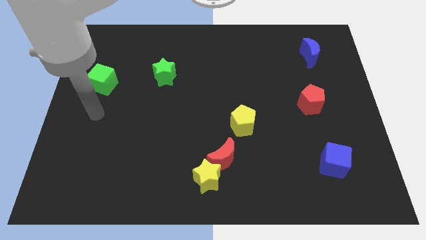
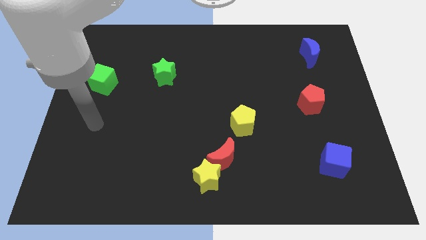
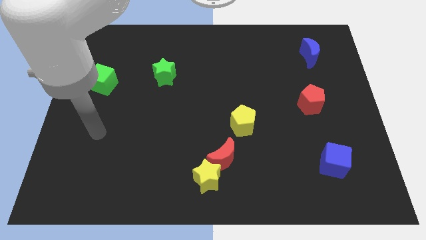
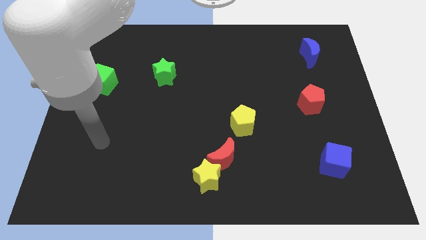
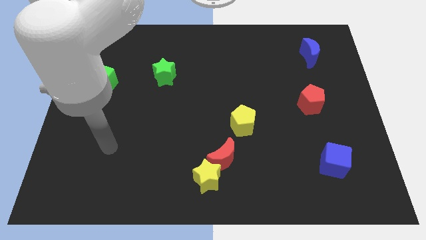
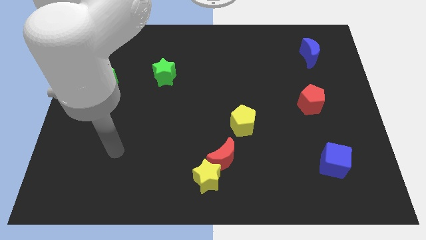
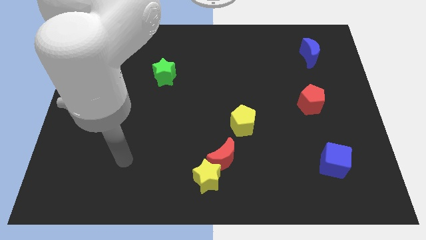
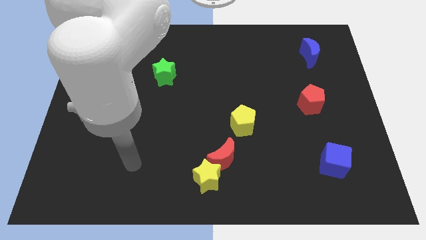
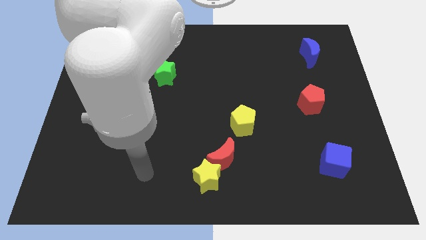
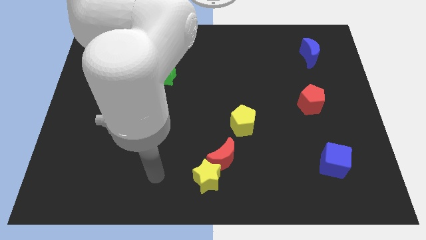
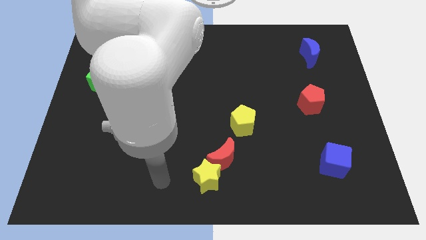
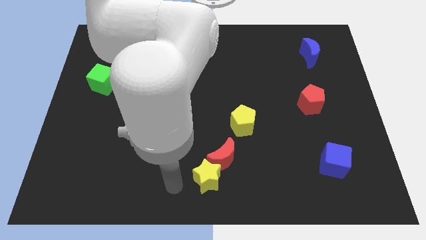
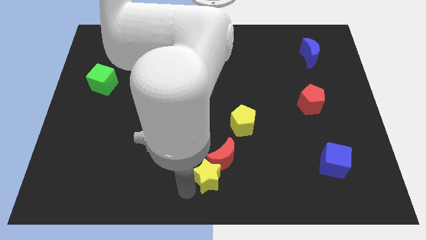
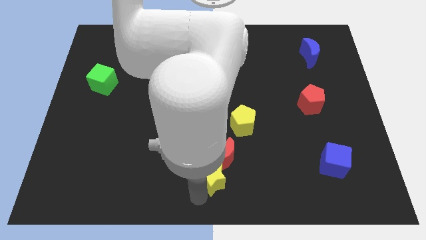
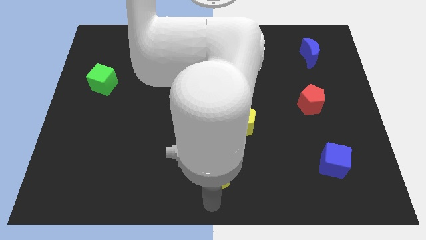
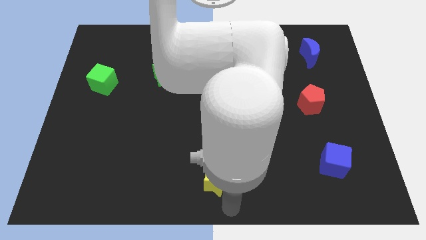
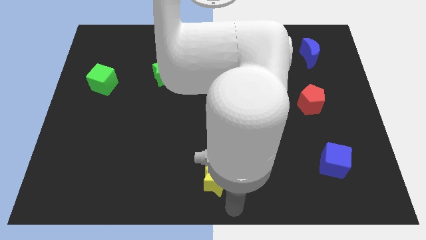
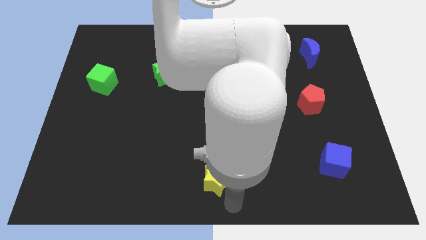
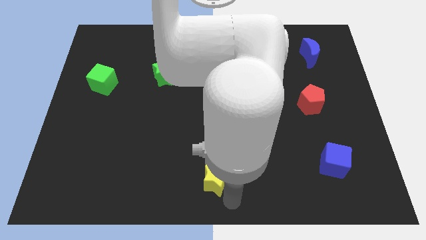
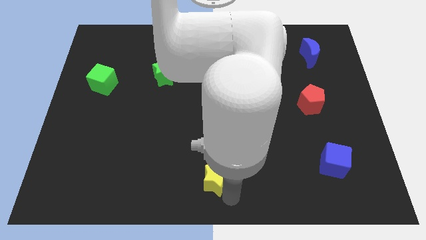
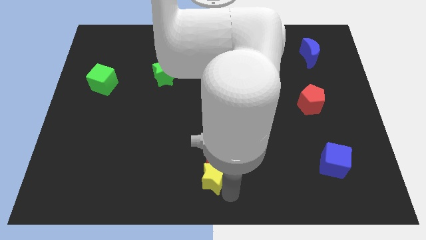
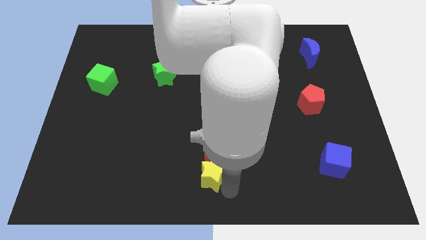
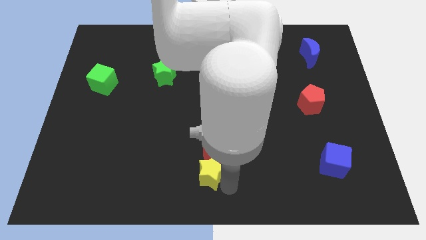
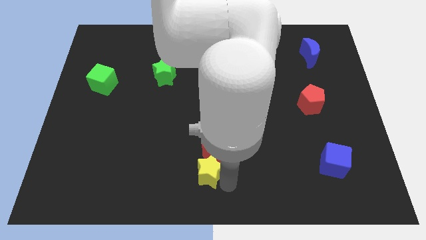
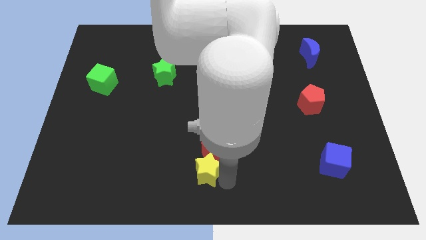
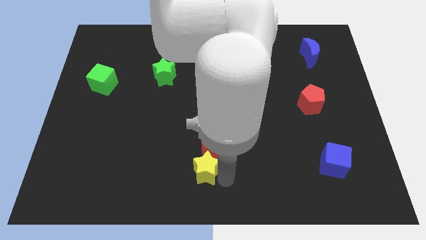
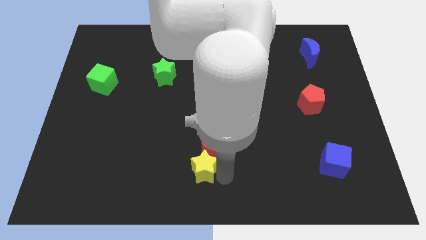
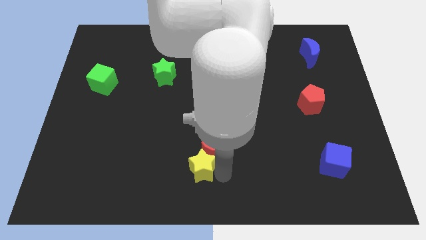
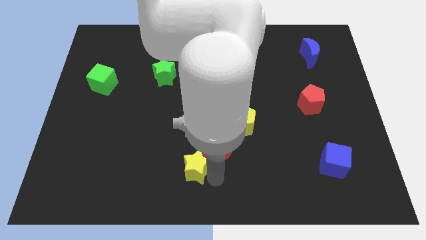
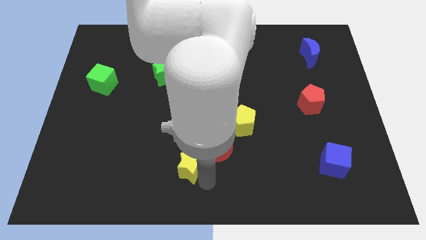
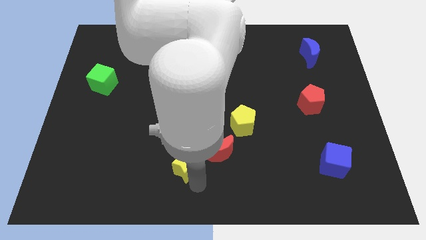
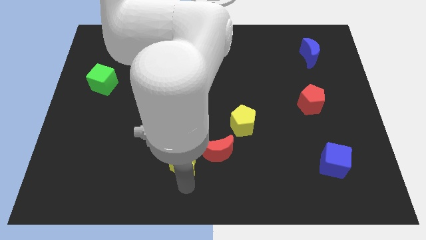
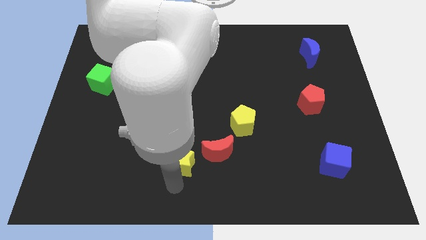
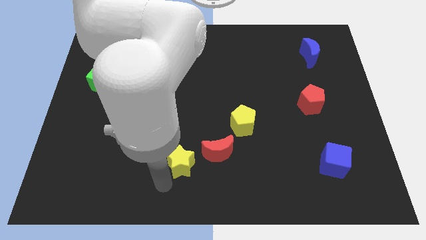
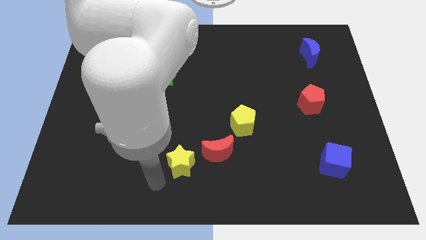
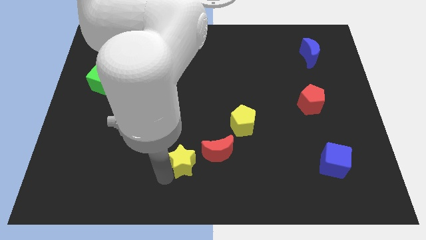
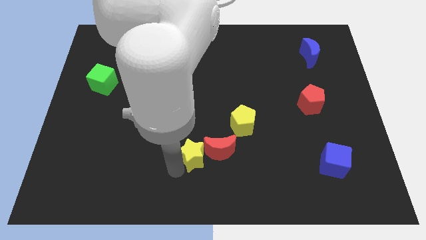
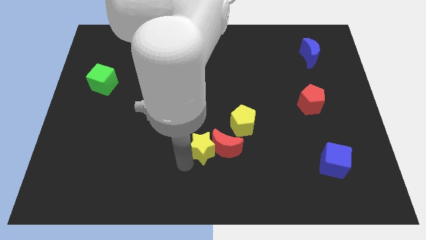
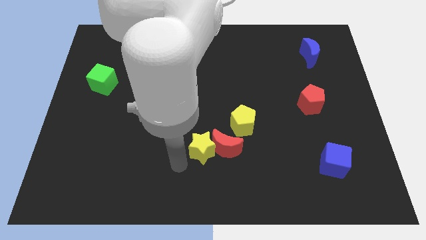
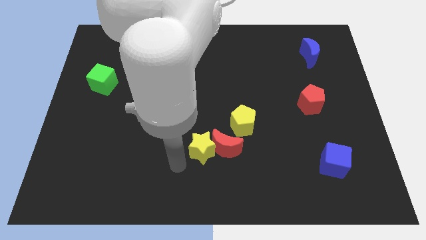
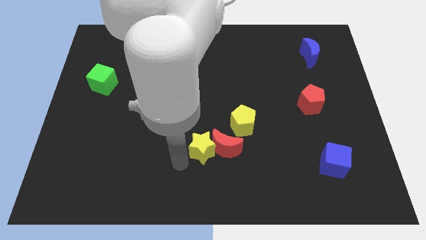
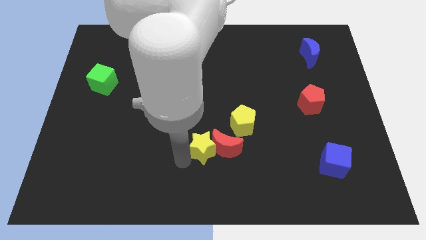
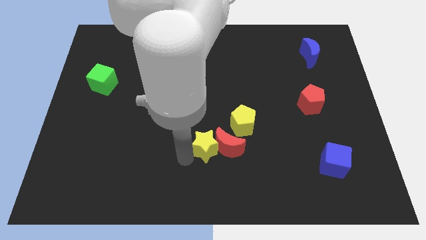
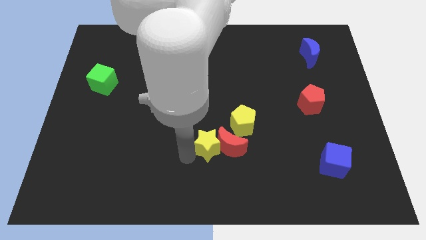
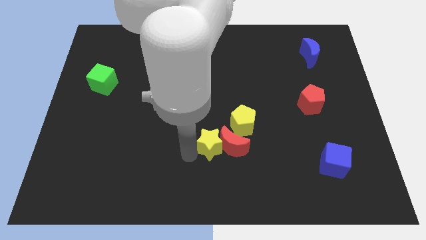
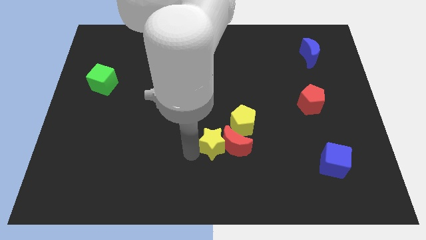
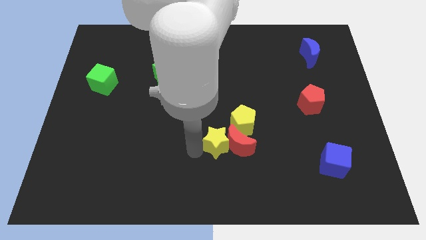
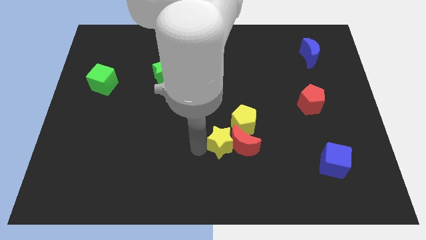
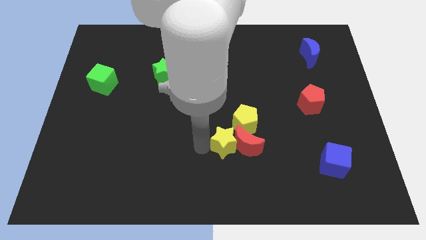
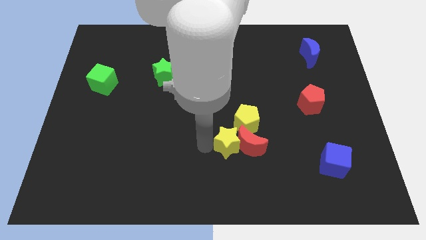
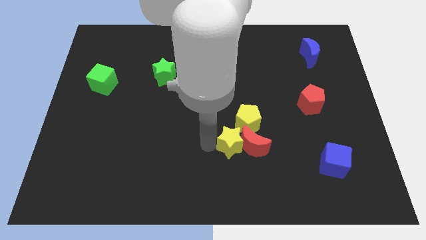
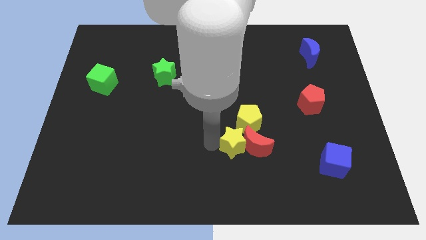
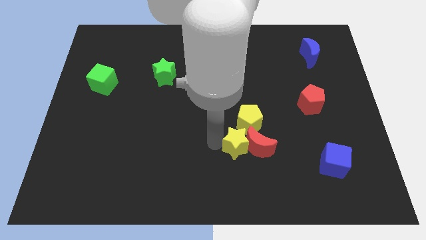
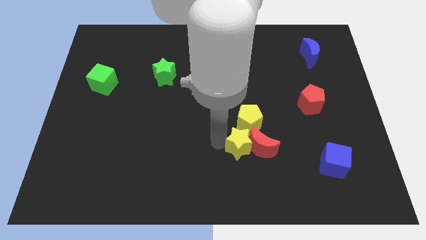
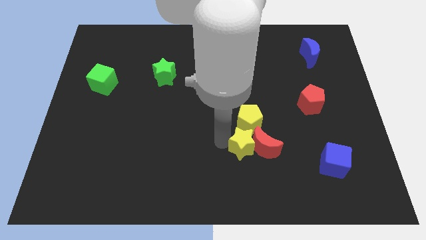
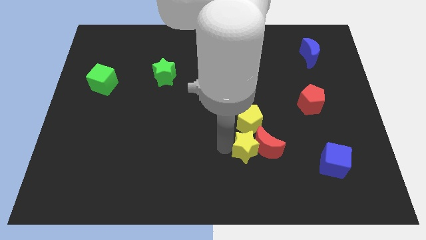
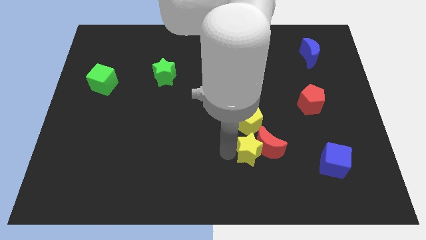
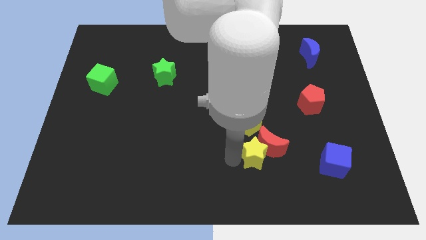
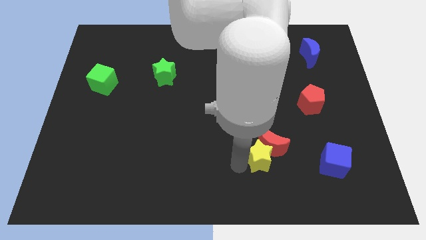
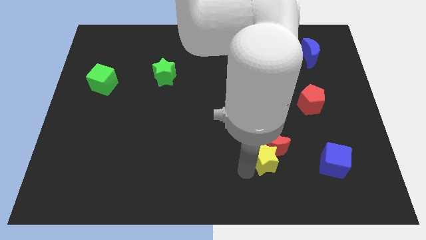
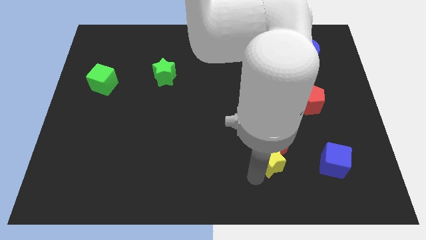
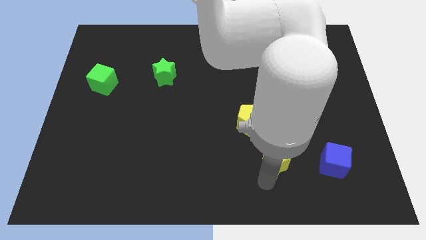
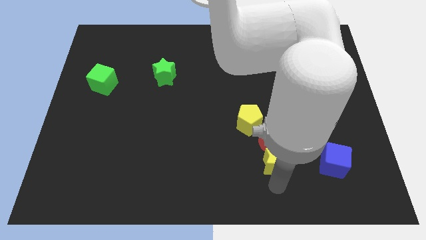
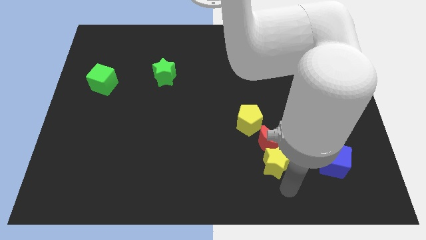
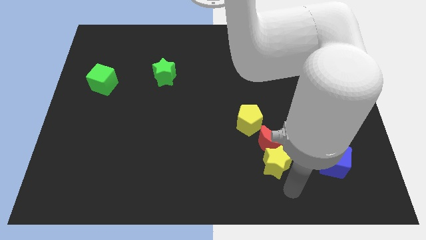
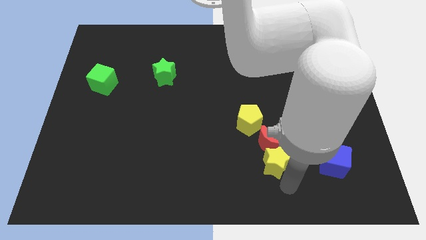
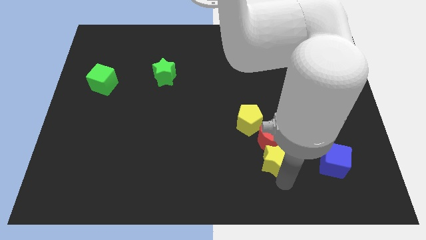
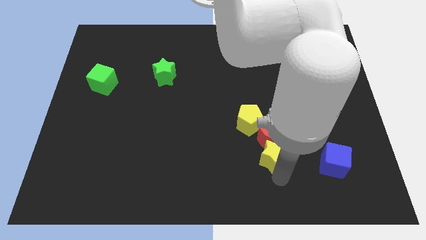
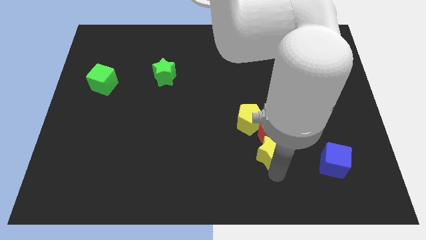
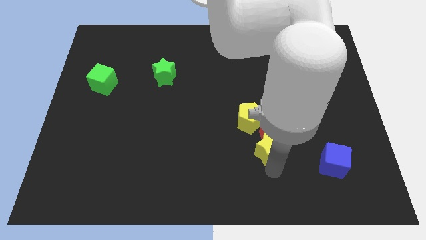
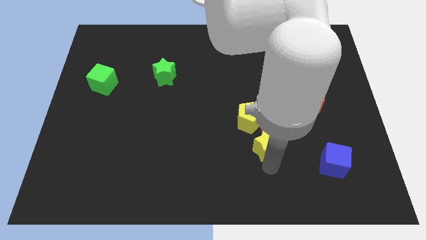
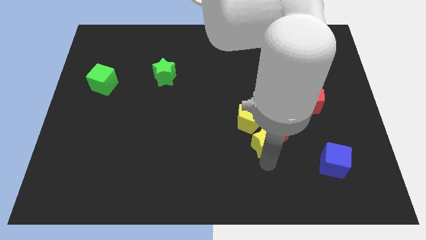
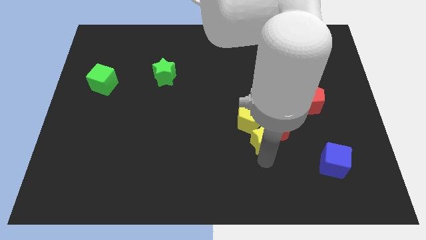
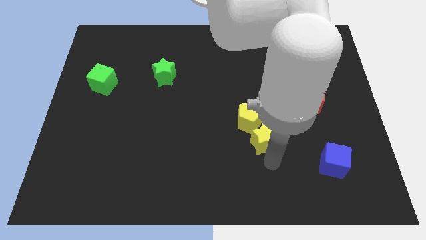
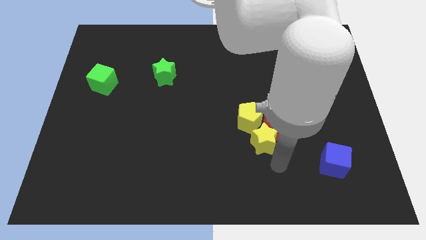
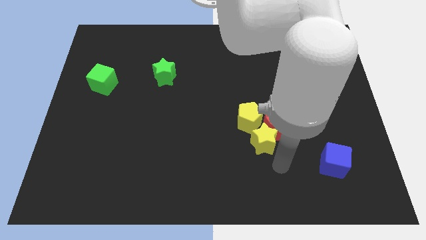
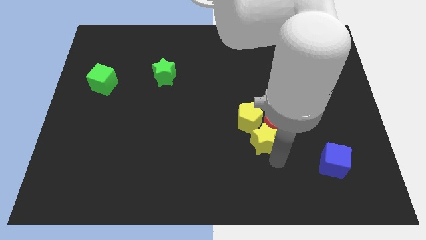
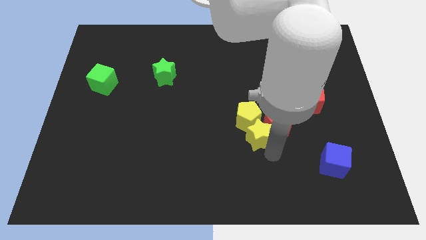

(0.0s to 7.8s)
move the yellow star to the yellow pentagon
